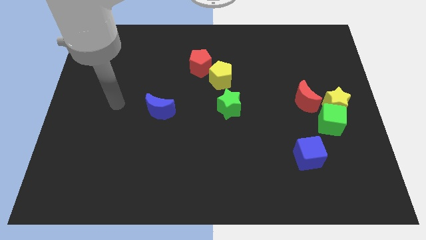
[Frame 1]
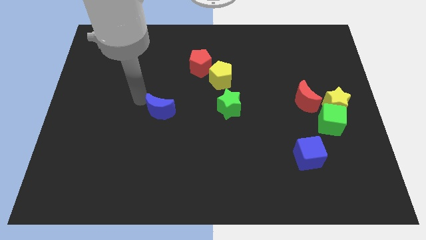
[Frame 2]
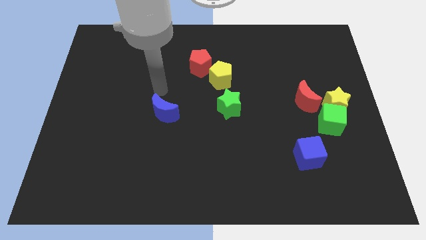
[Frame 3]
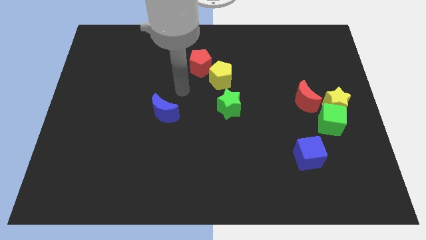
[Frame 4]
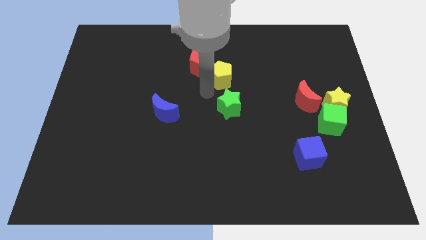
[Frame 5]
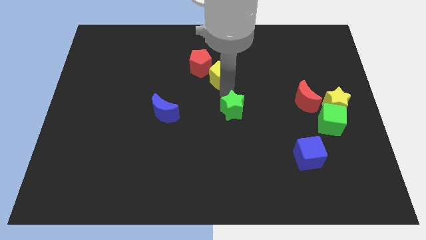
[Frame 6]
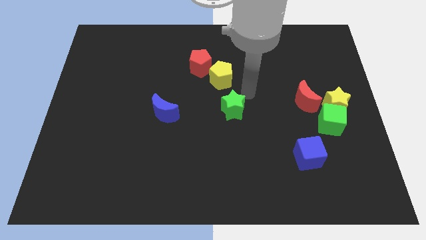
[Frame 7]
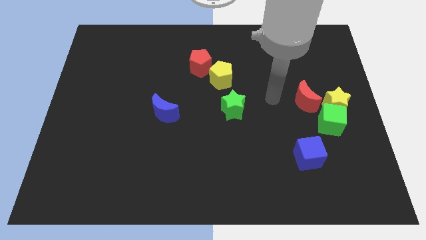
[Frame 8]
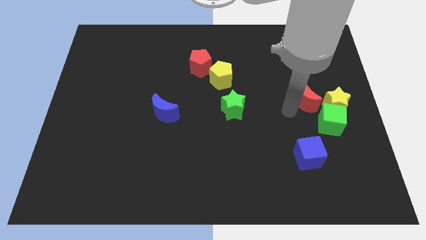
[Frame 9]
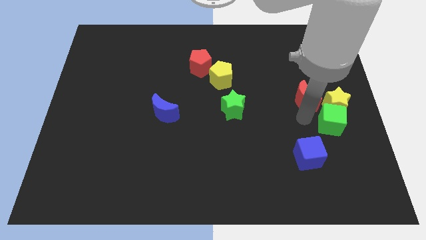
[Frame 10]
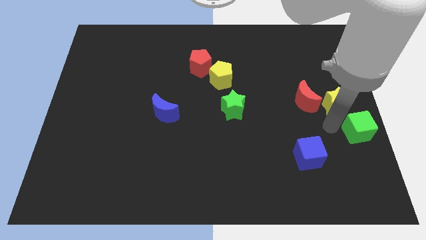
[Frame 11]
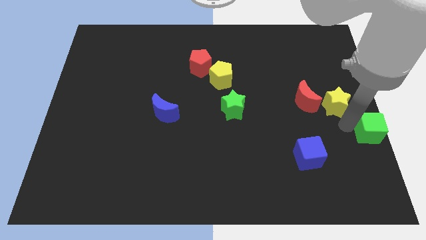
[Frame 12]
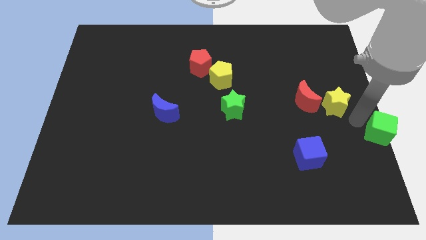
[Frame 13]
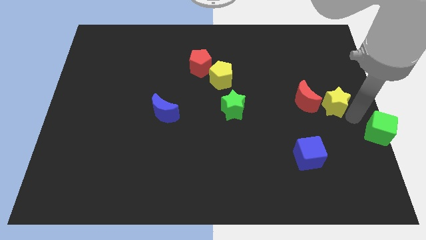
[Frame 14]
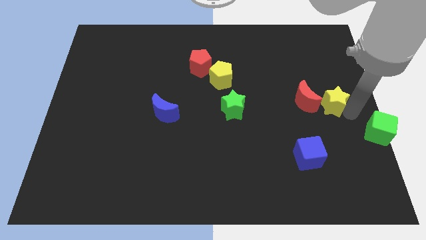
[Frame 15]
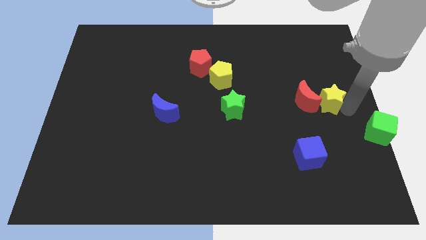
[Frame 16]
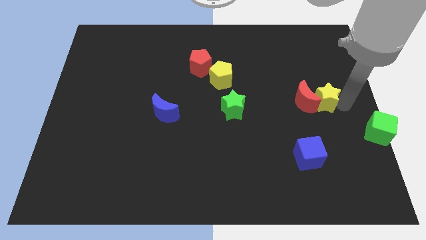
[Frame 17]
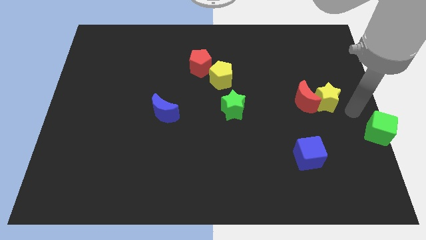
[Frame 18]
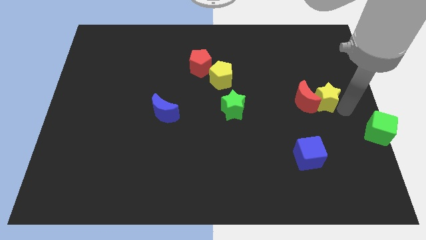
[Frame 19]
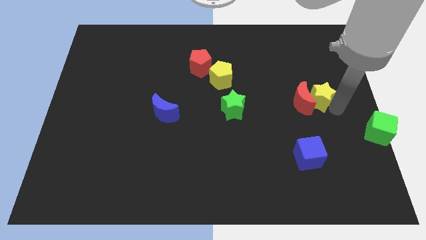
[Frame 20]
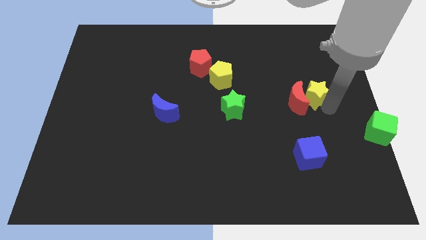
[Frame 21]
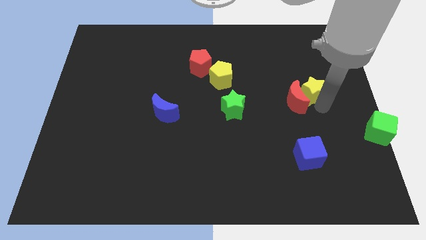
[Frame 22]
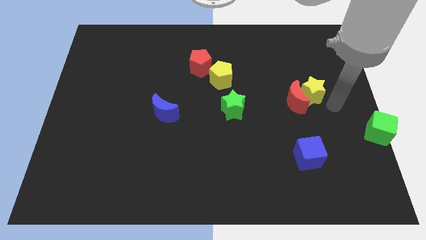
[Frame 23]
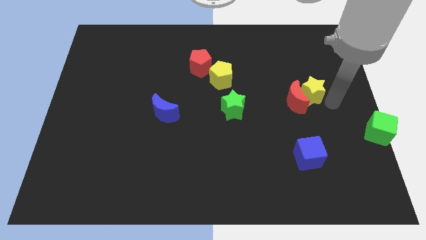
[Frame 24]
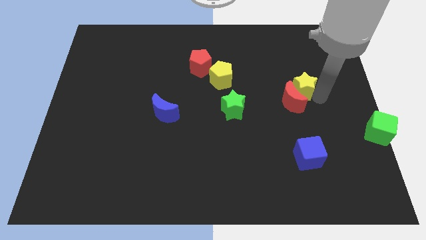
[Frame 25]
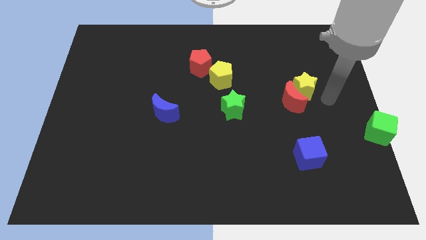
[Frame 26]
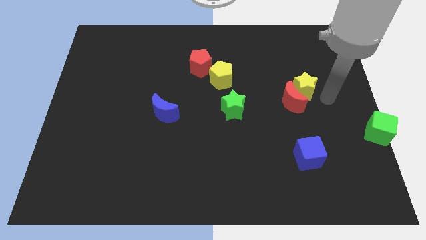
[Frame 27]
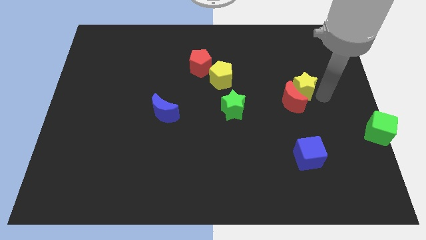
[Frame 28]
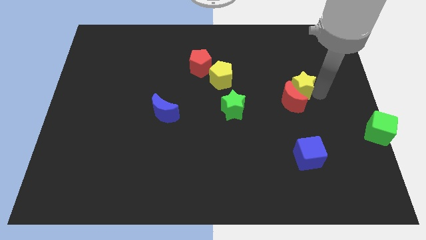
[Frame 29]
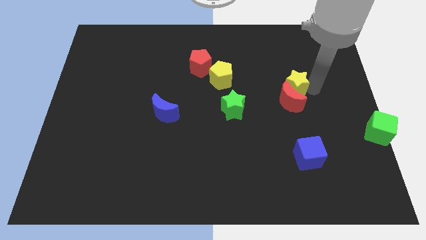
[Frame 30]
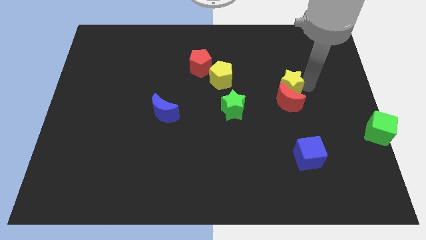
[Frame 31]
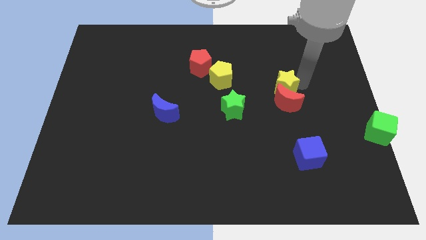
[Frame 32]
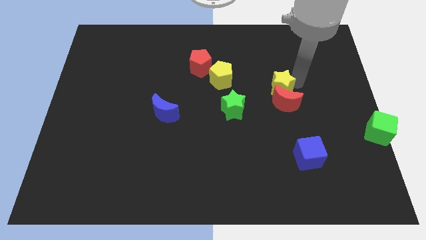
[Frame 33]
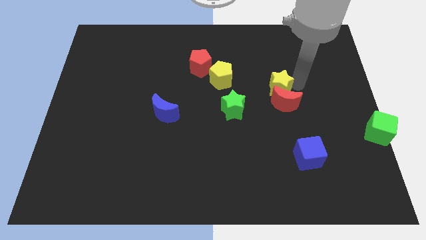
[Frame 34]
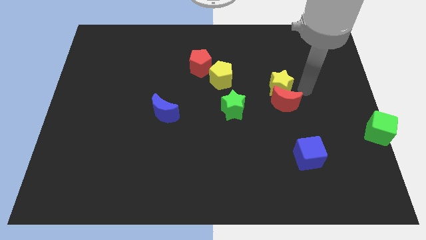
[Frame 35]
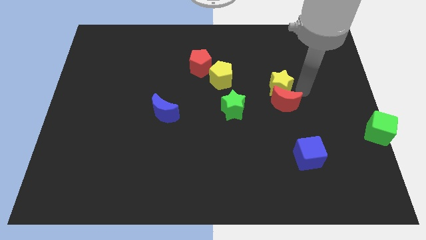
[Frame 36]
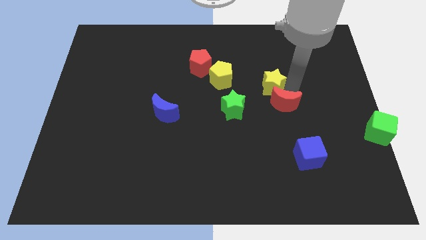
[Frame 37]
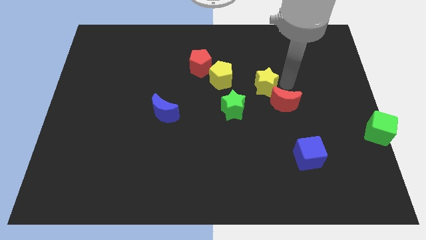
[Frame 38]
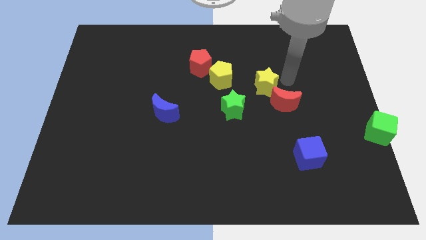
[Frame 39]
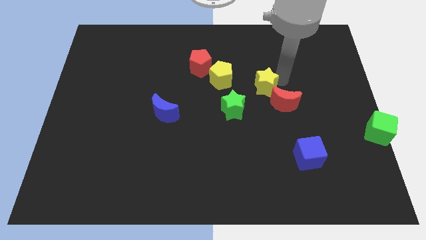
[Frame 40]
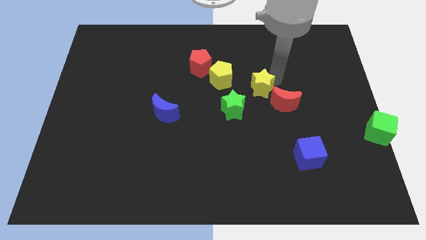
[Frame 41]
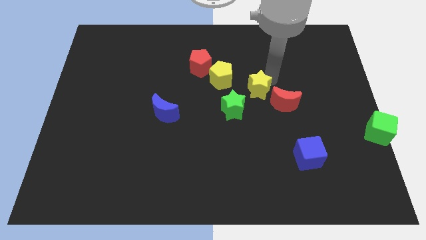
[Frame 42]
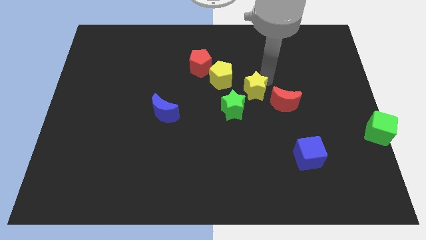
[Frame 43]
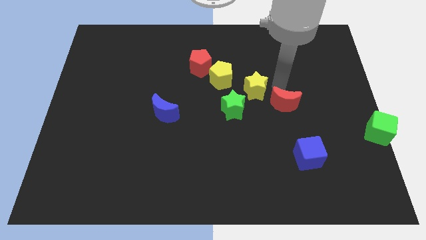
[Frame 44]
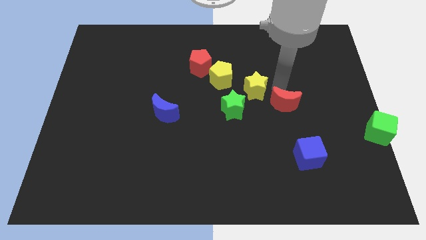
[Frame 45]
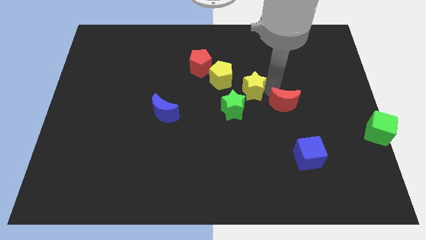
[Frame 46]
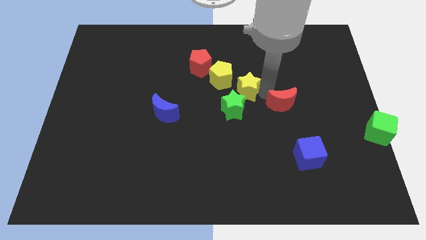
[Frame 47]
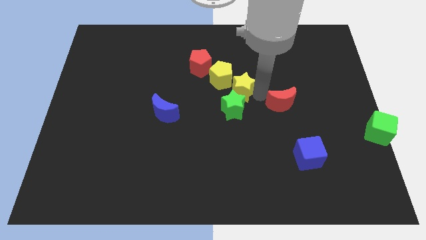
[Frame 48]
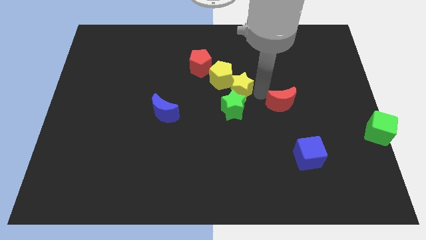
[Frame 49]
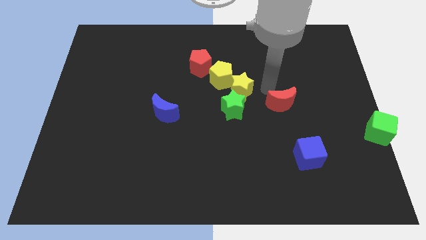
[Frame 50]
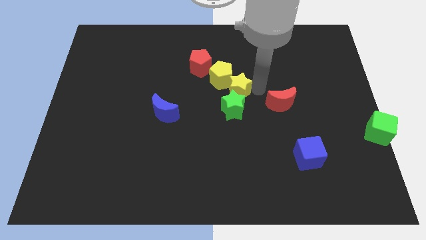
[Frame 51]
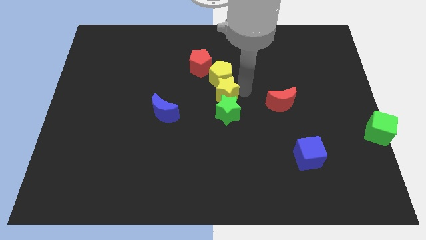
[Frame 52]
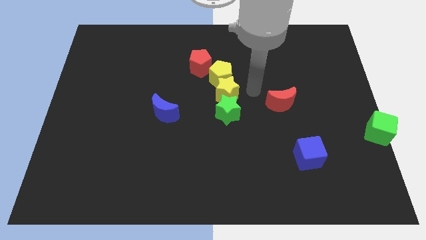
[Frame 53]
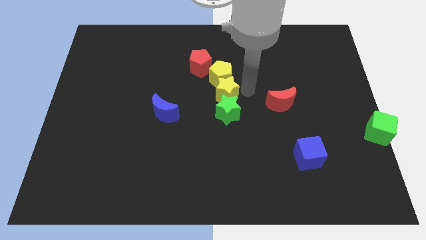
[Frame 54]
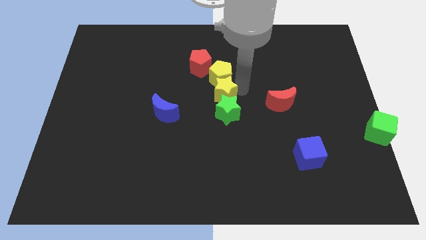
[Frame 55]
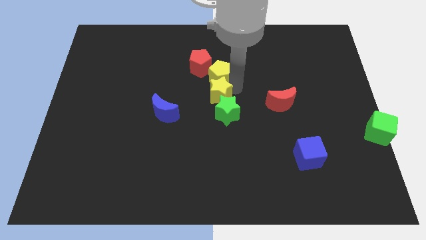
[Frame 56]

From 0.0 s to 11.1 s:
put the yellow star to the bottom of the red pentagon

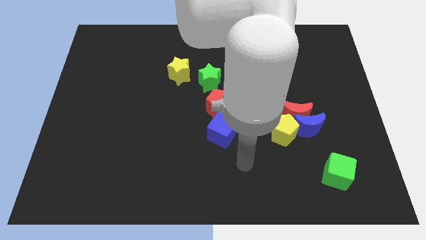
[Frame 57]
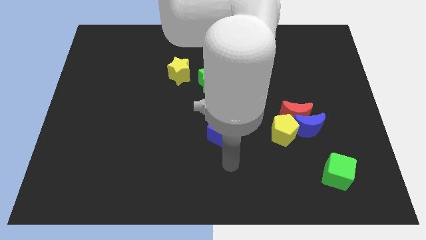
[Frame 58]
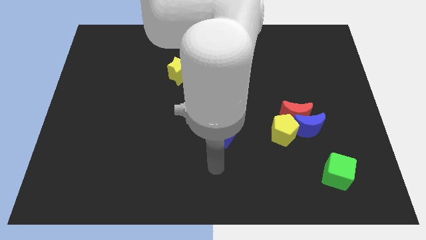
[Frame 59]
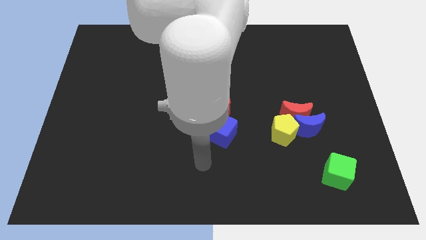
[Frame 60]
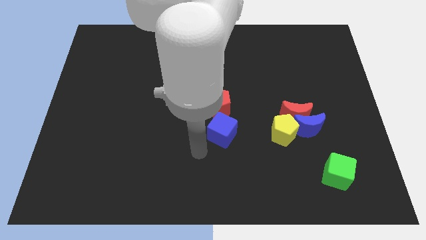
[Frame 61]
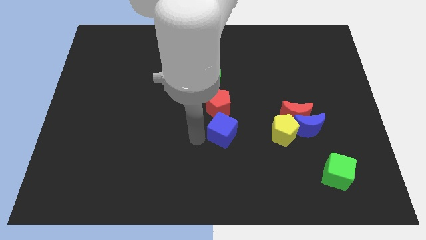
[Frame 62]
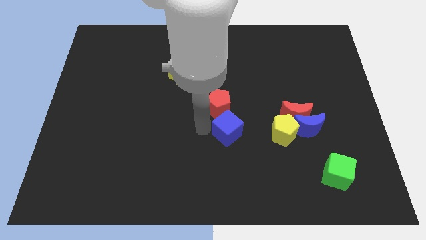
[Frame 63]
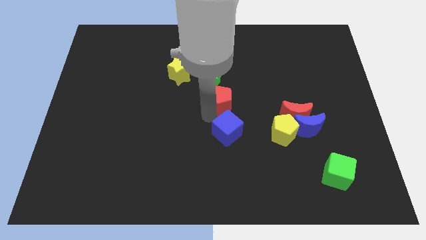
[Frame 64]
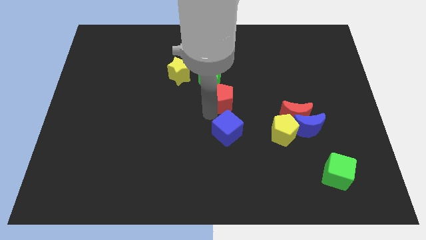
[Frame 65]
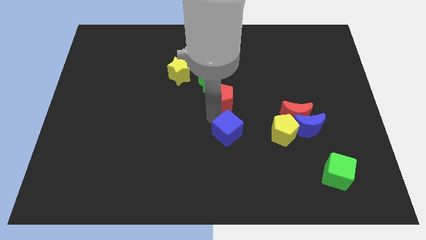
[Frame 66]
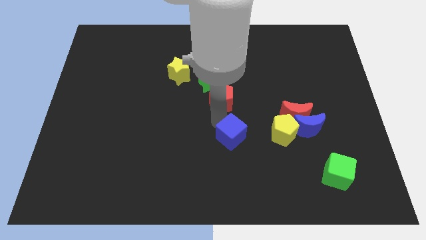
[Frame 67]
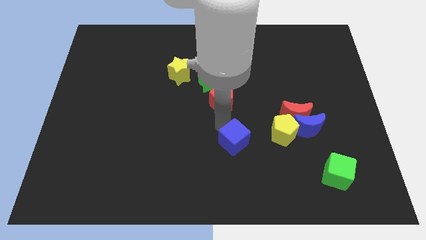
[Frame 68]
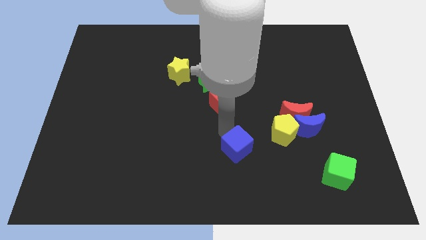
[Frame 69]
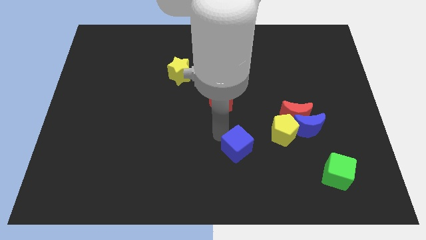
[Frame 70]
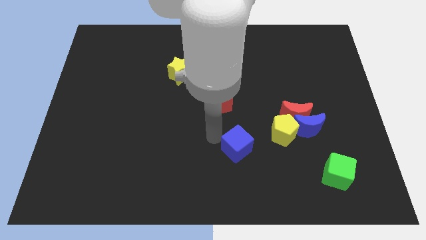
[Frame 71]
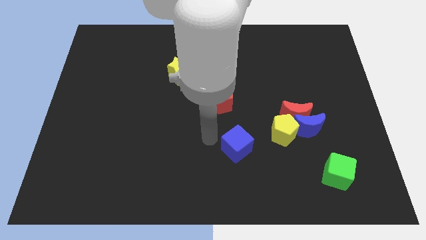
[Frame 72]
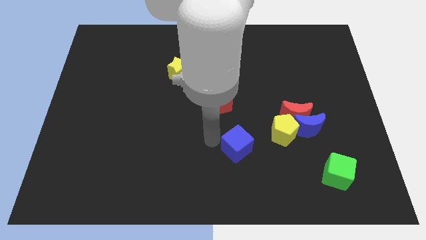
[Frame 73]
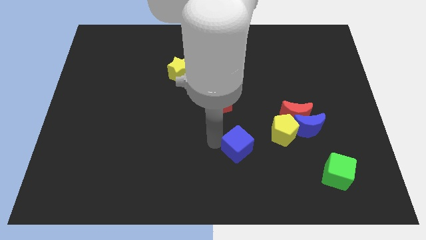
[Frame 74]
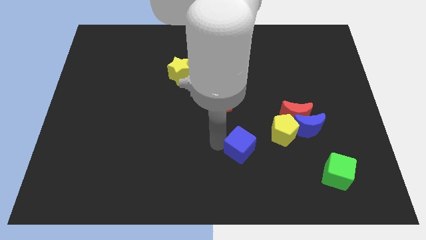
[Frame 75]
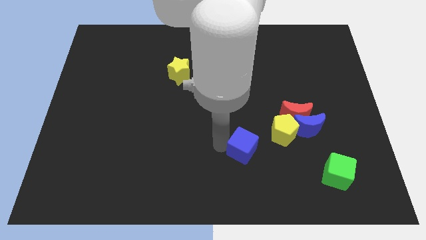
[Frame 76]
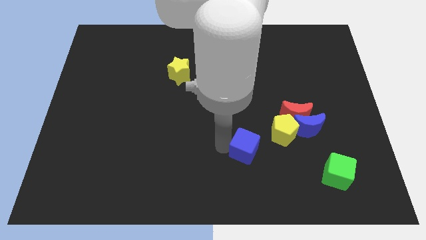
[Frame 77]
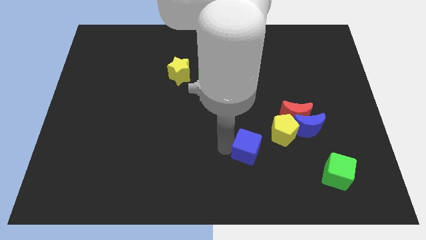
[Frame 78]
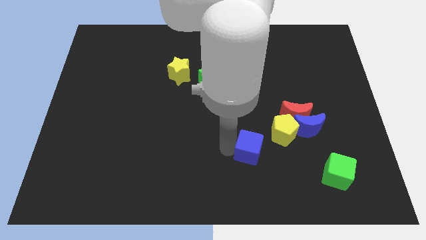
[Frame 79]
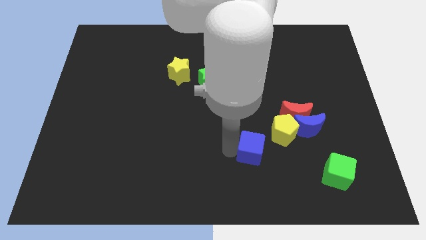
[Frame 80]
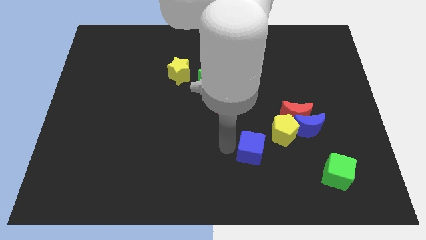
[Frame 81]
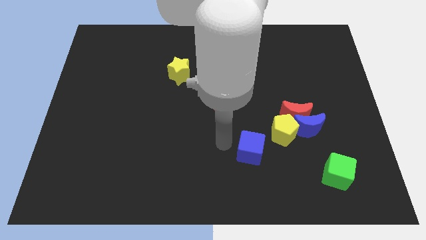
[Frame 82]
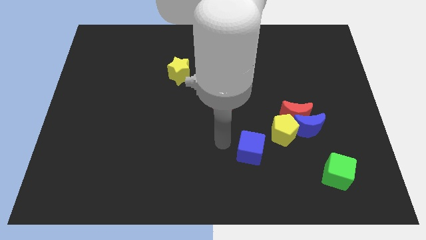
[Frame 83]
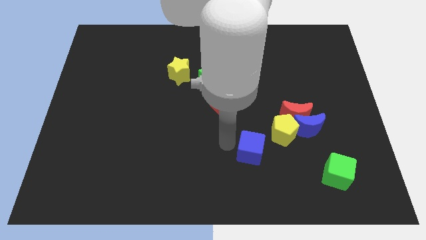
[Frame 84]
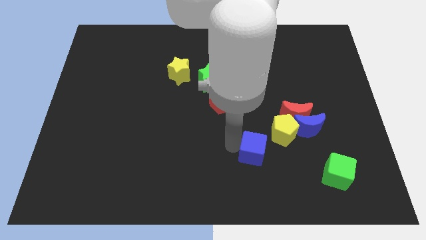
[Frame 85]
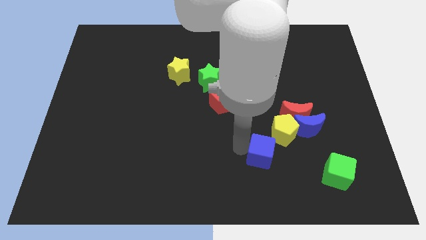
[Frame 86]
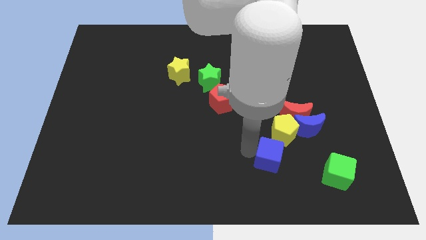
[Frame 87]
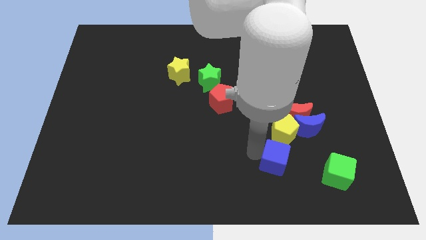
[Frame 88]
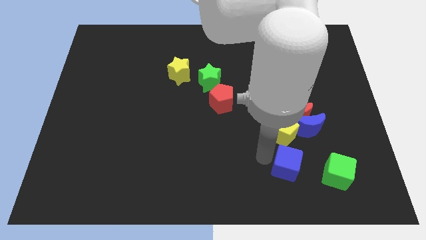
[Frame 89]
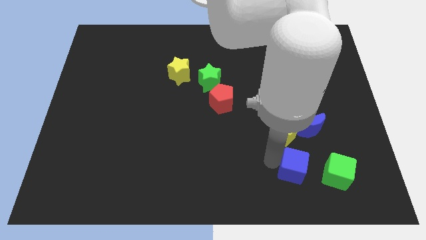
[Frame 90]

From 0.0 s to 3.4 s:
put the blue cube to the bottom side of the blue moon
